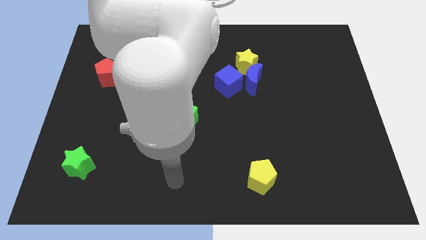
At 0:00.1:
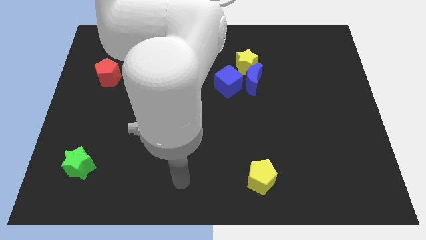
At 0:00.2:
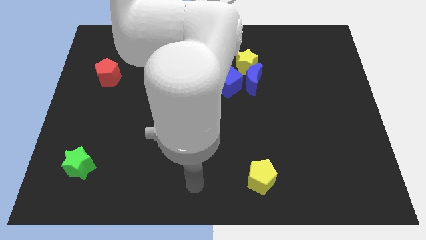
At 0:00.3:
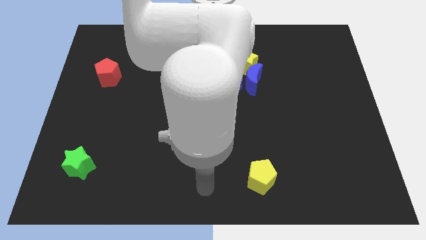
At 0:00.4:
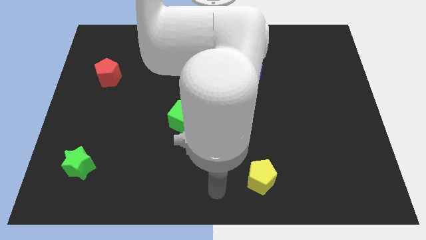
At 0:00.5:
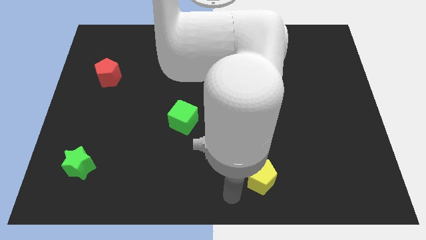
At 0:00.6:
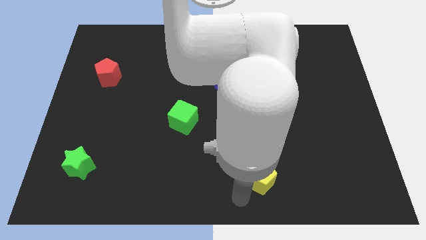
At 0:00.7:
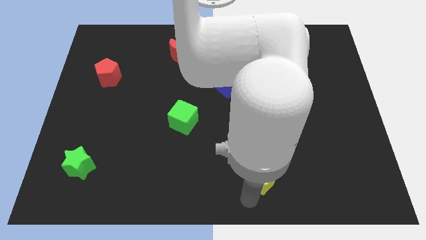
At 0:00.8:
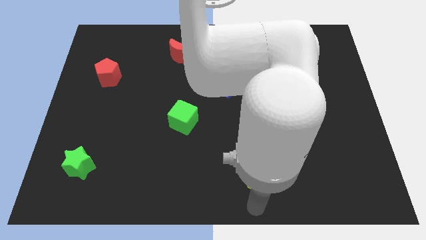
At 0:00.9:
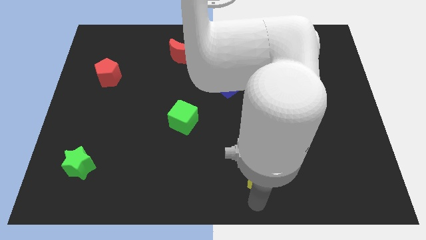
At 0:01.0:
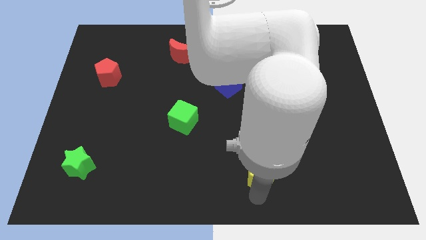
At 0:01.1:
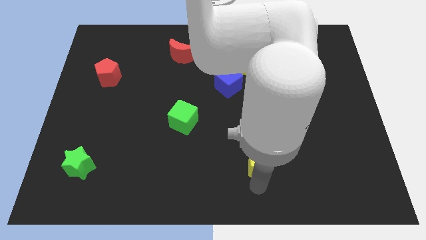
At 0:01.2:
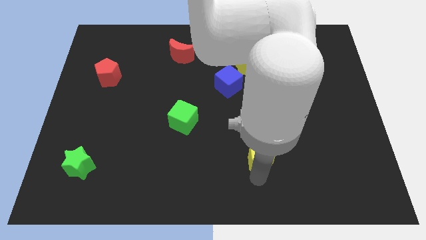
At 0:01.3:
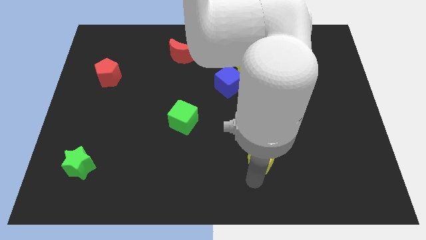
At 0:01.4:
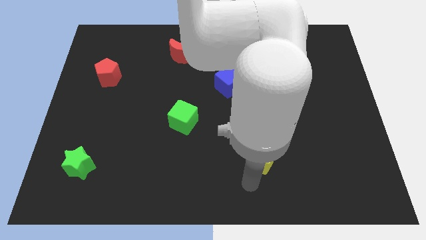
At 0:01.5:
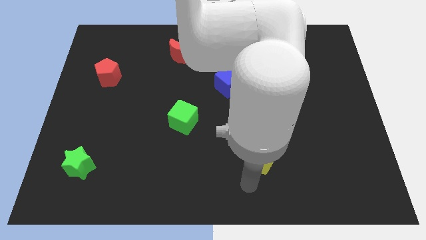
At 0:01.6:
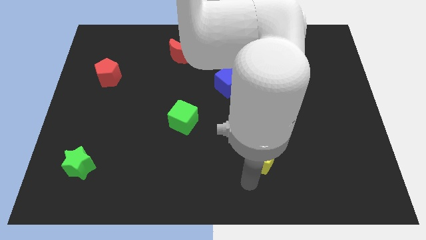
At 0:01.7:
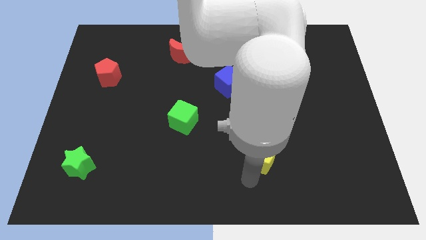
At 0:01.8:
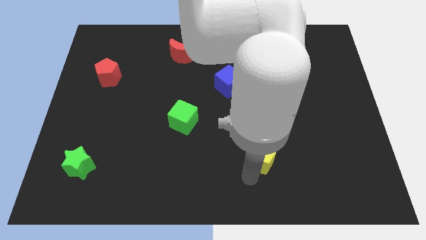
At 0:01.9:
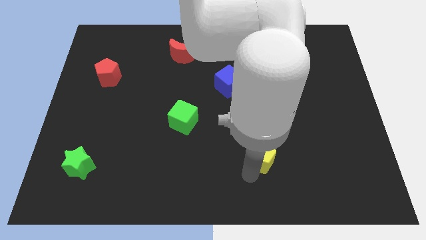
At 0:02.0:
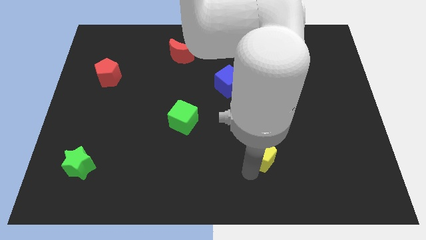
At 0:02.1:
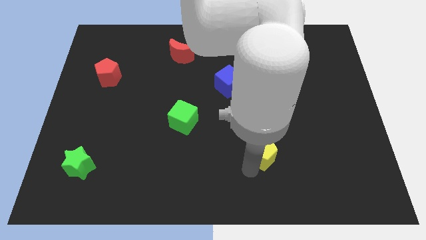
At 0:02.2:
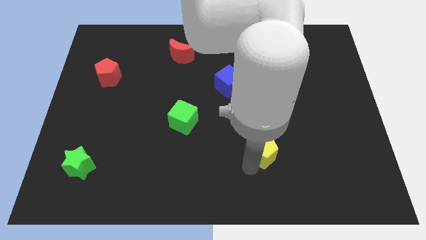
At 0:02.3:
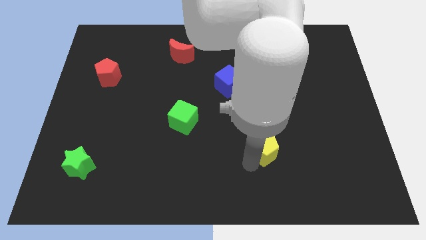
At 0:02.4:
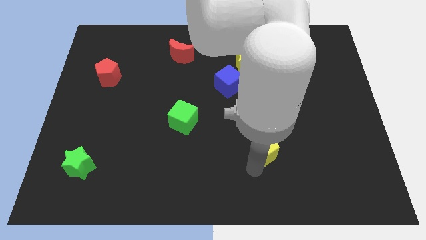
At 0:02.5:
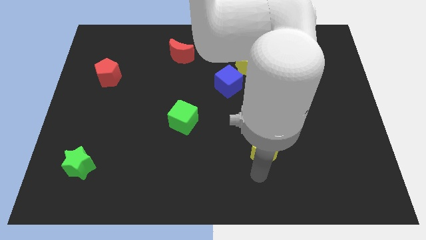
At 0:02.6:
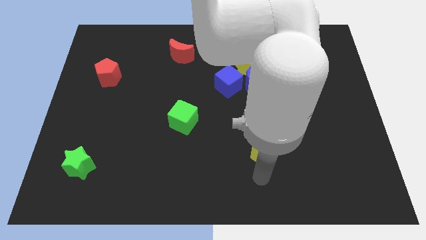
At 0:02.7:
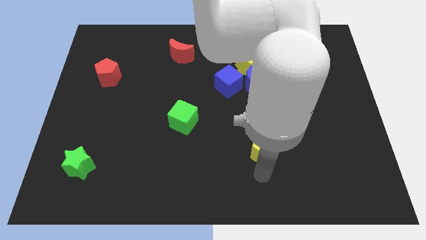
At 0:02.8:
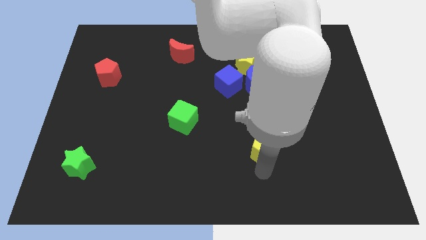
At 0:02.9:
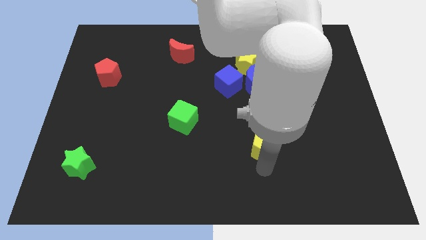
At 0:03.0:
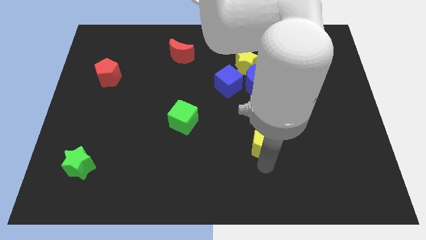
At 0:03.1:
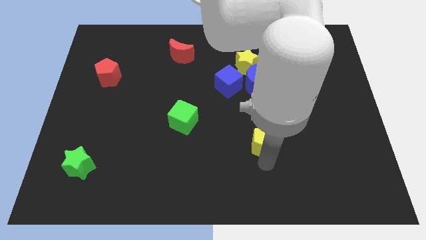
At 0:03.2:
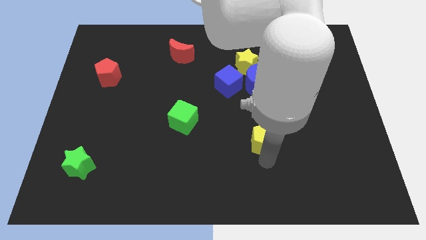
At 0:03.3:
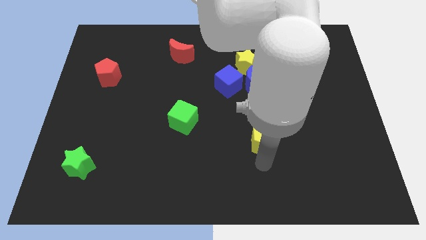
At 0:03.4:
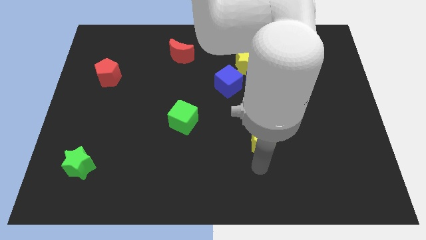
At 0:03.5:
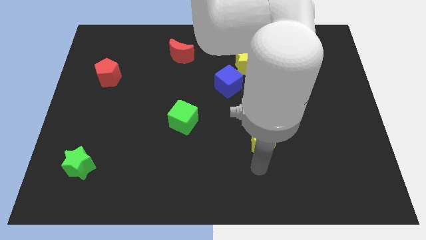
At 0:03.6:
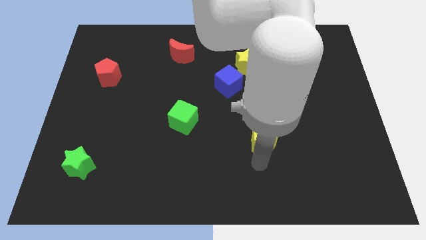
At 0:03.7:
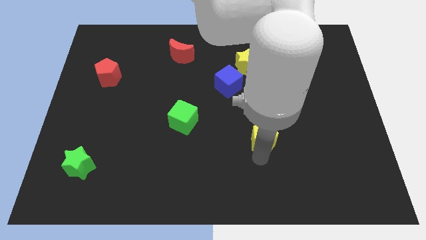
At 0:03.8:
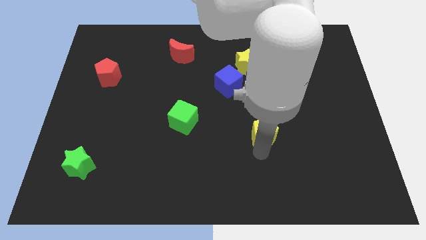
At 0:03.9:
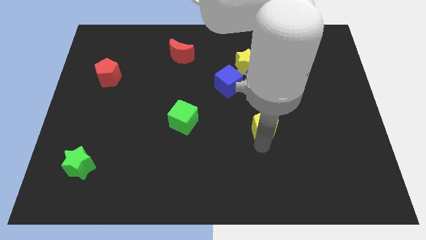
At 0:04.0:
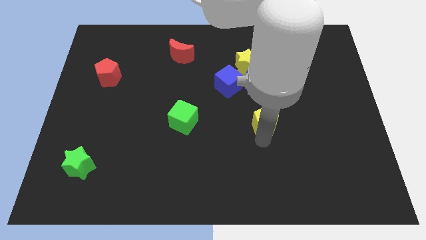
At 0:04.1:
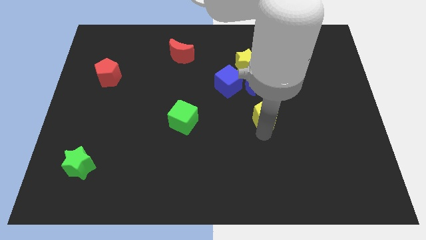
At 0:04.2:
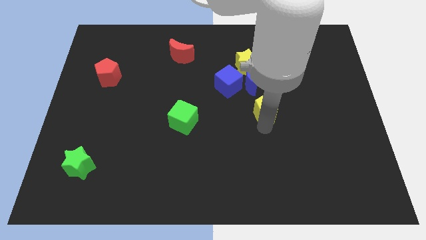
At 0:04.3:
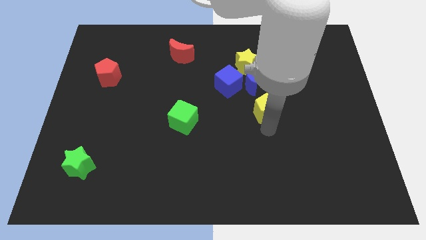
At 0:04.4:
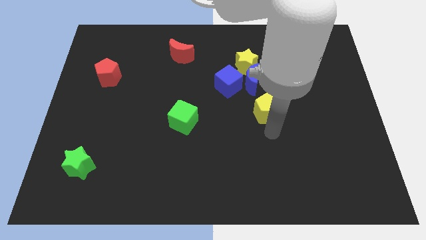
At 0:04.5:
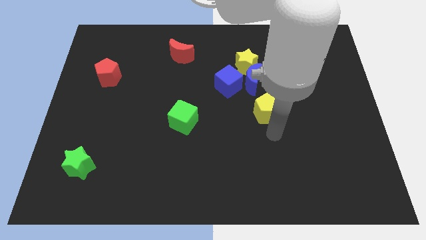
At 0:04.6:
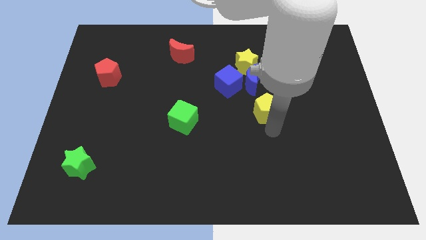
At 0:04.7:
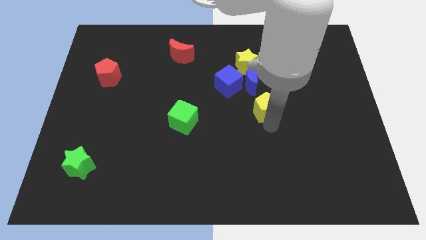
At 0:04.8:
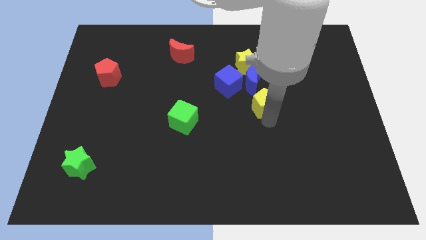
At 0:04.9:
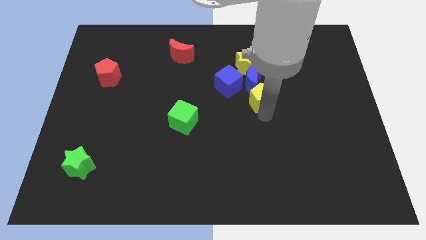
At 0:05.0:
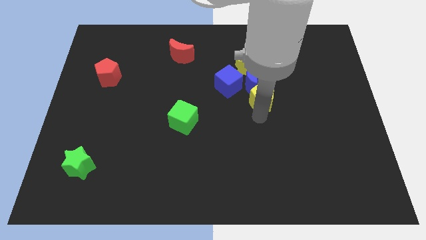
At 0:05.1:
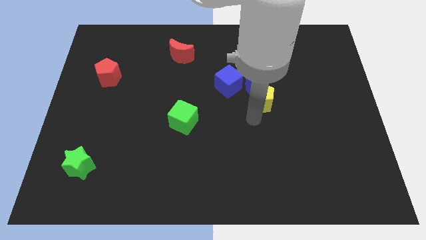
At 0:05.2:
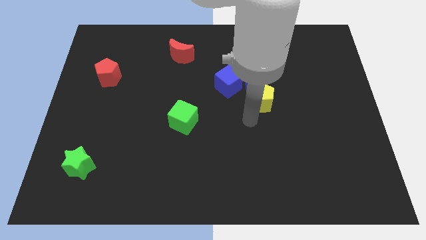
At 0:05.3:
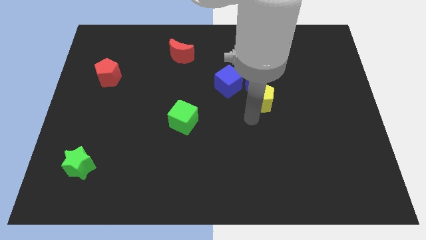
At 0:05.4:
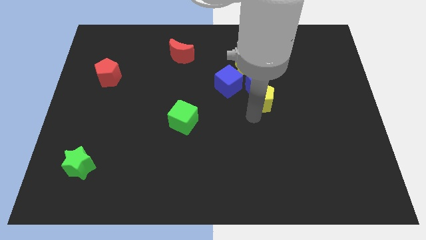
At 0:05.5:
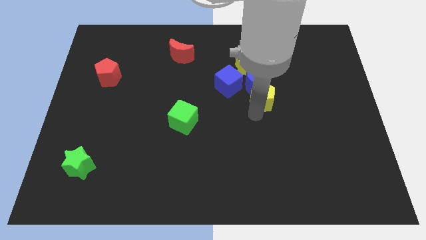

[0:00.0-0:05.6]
move the yellow pentagon to the right of the blue cube

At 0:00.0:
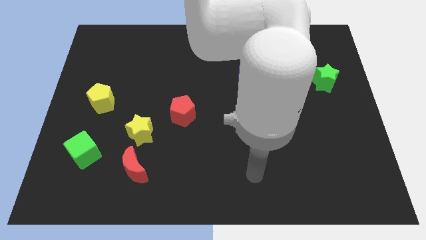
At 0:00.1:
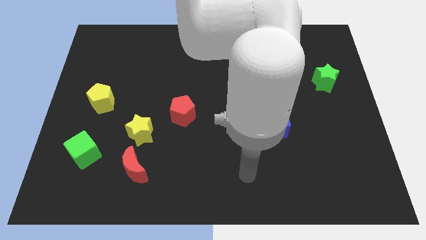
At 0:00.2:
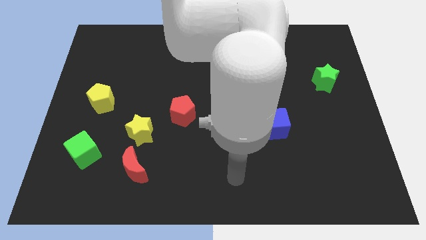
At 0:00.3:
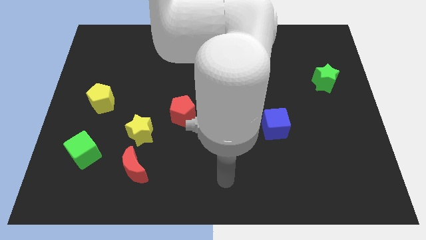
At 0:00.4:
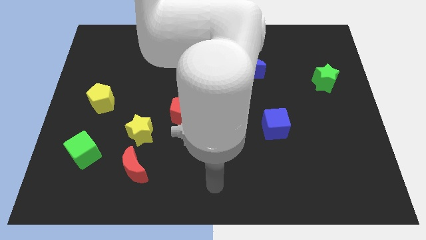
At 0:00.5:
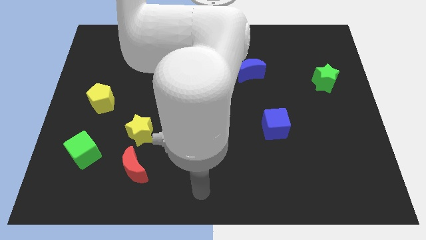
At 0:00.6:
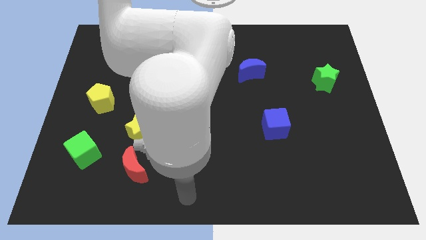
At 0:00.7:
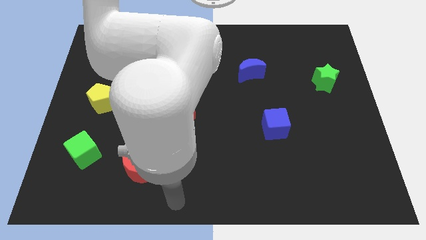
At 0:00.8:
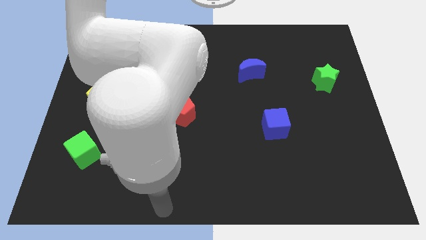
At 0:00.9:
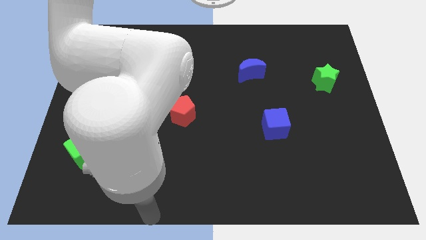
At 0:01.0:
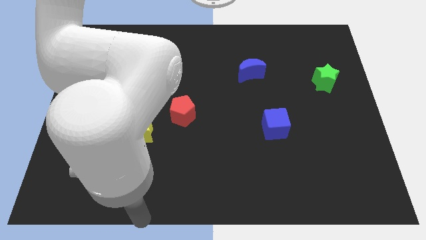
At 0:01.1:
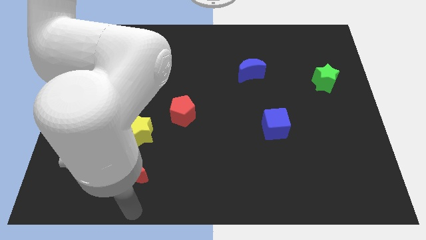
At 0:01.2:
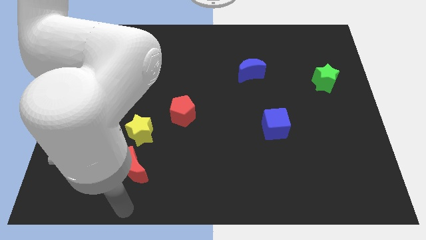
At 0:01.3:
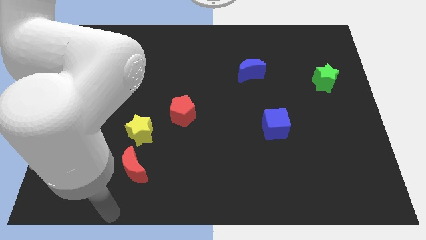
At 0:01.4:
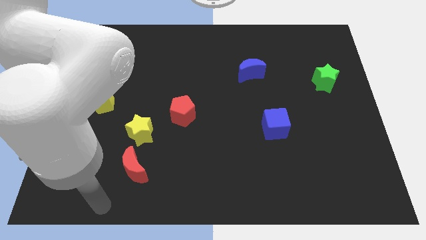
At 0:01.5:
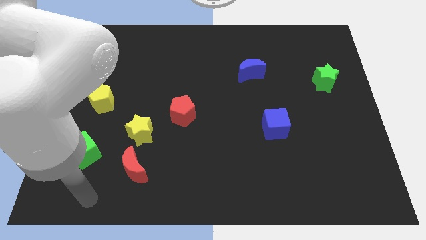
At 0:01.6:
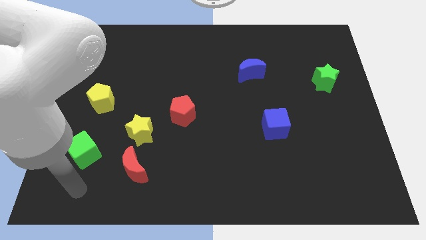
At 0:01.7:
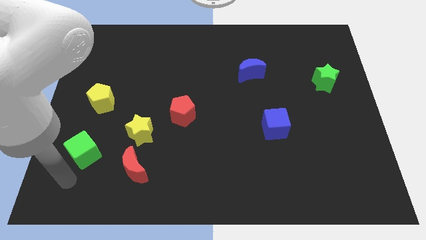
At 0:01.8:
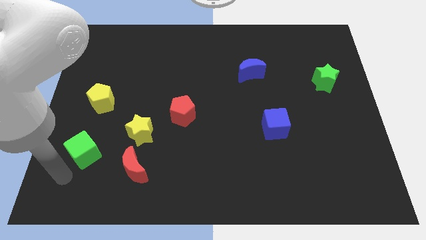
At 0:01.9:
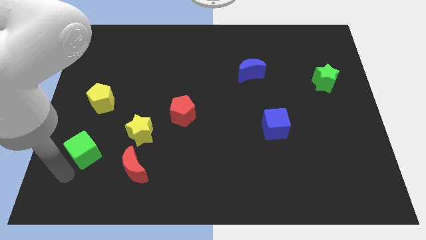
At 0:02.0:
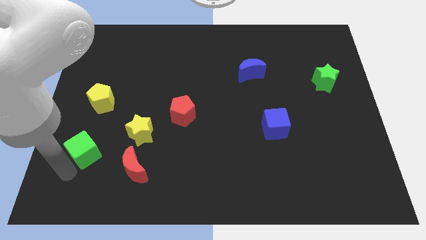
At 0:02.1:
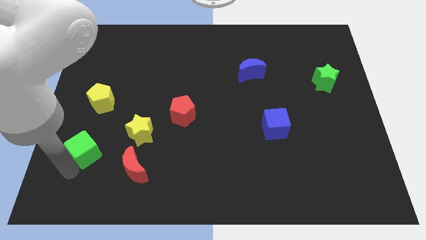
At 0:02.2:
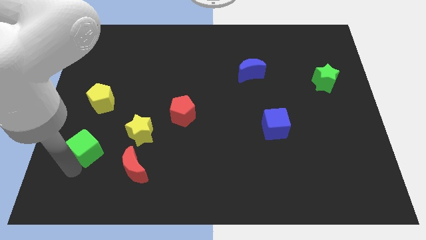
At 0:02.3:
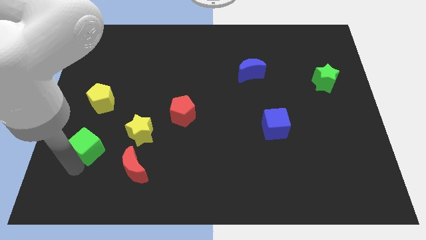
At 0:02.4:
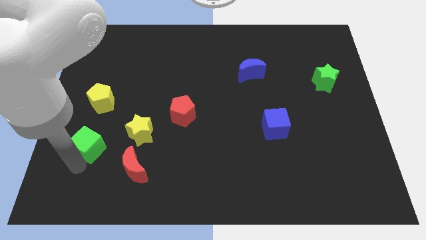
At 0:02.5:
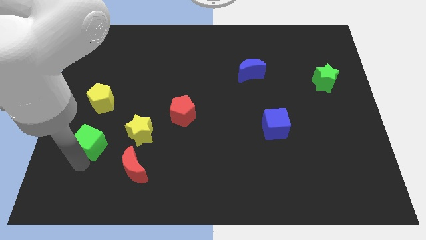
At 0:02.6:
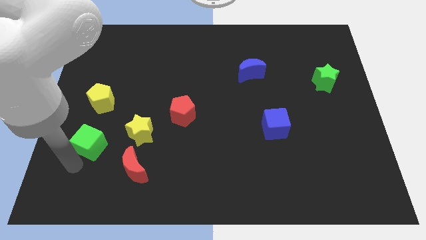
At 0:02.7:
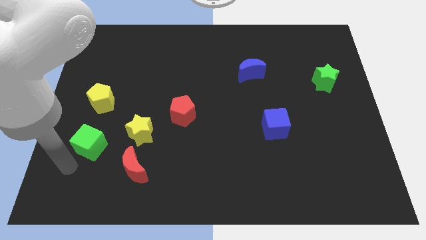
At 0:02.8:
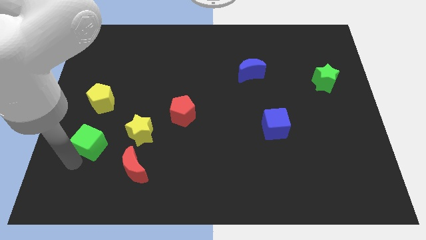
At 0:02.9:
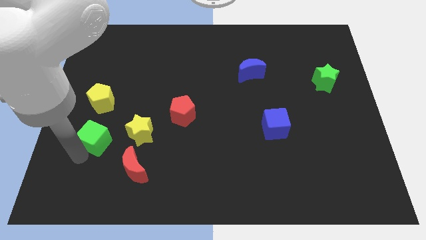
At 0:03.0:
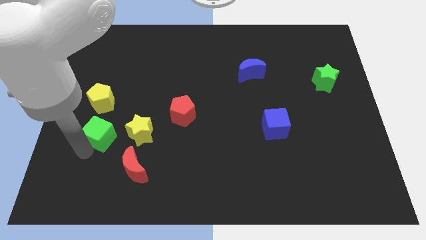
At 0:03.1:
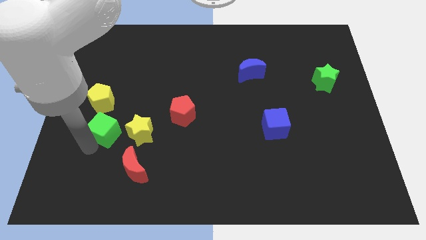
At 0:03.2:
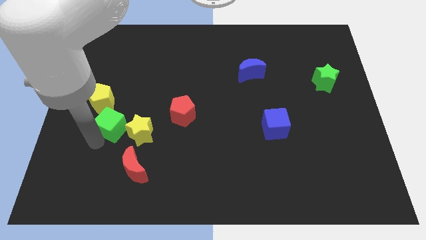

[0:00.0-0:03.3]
put the green cube to the top left side of the yellow star
